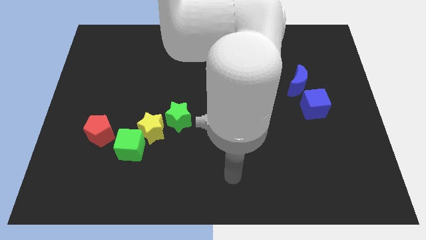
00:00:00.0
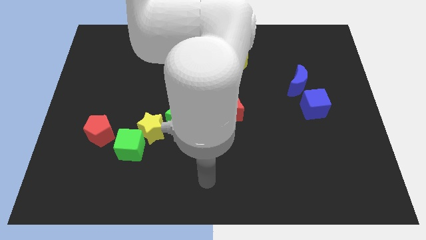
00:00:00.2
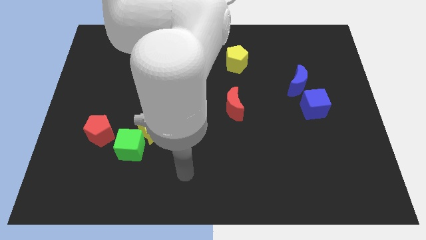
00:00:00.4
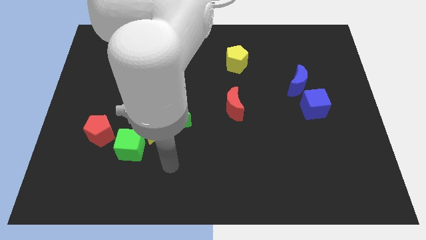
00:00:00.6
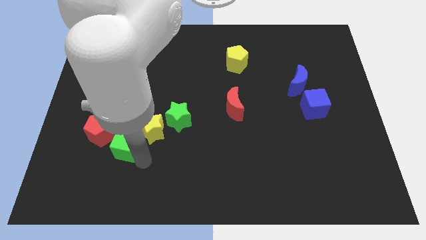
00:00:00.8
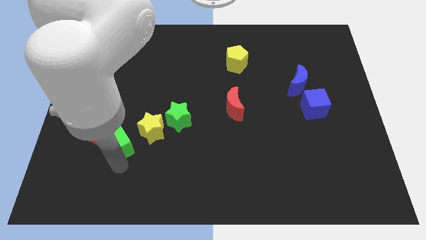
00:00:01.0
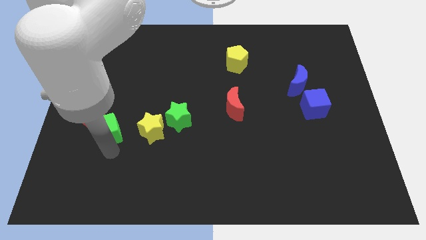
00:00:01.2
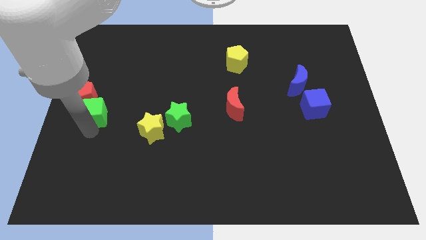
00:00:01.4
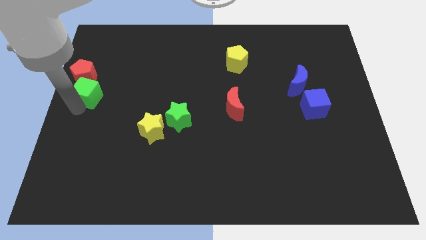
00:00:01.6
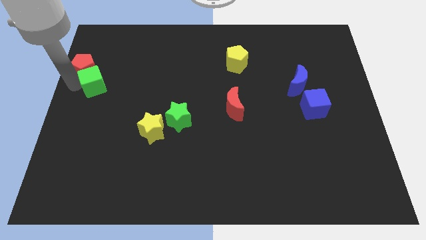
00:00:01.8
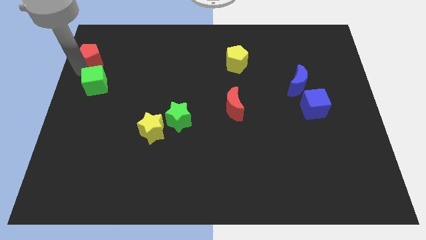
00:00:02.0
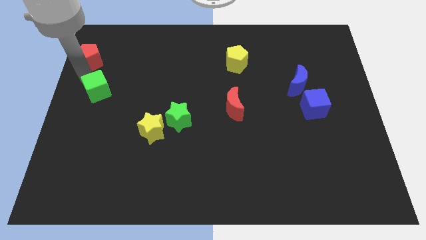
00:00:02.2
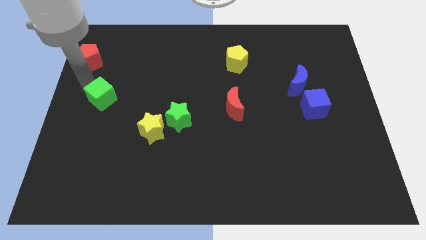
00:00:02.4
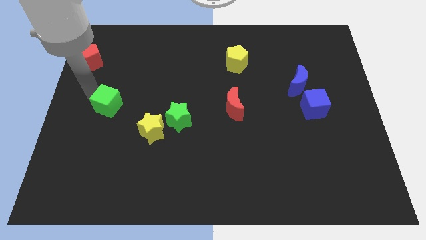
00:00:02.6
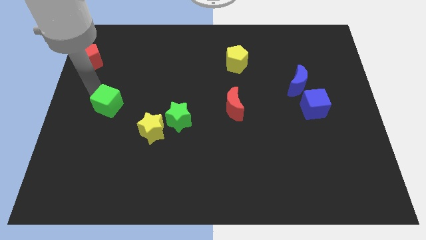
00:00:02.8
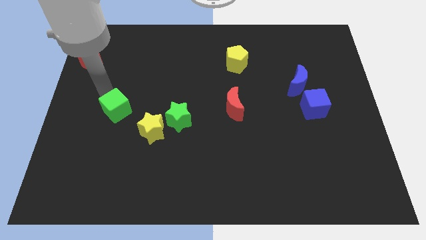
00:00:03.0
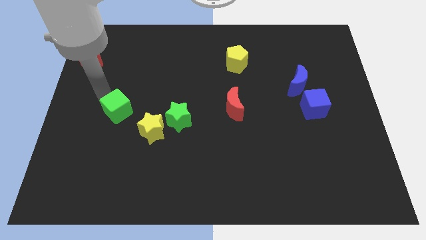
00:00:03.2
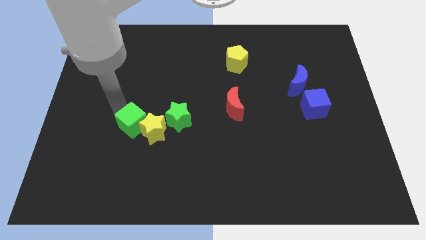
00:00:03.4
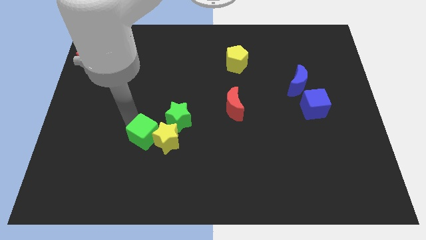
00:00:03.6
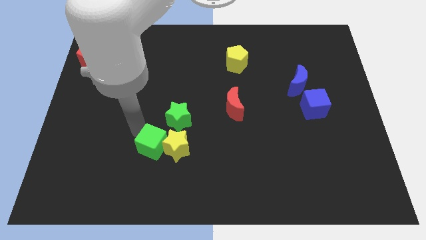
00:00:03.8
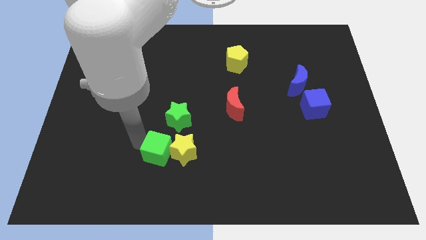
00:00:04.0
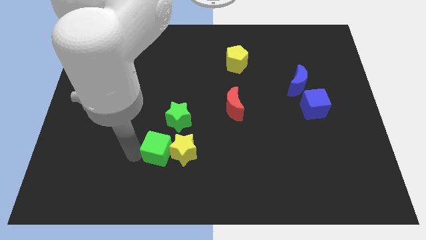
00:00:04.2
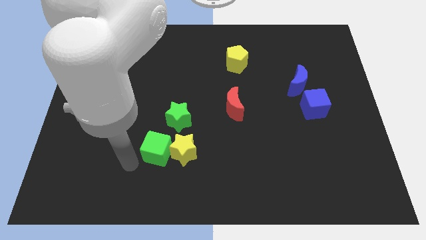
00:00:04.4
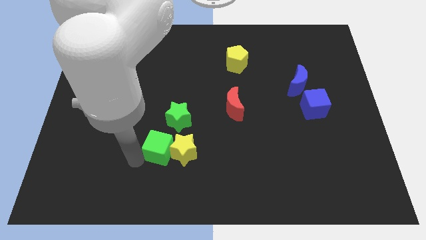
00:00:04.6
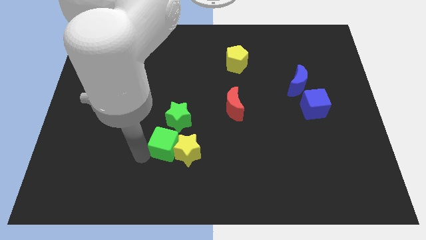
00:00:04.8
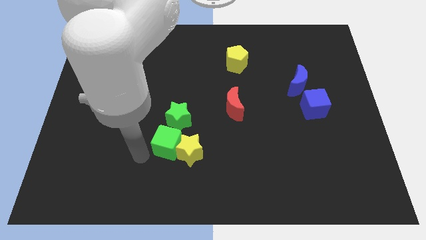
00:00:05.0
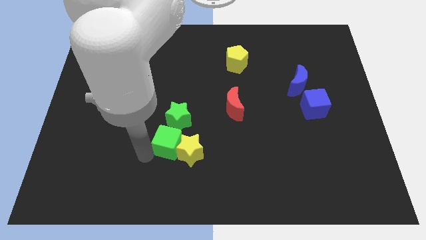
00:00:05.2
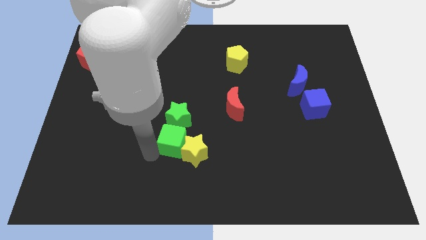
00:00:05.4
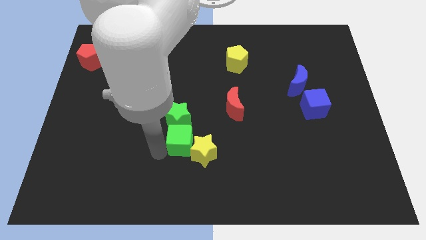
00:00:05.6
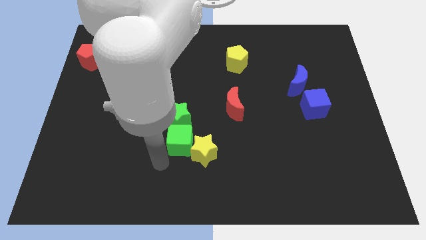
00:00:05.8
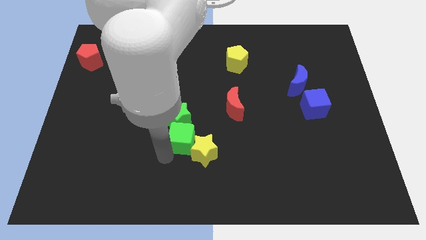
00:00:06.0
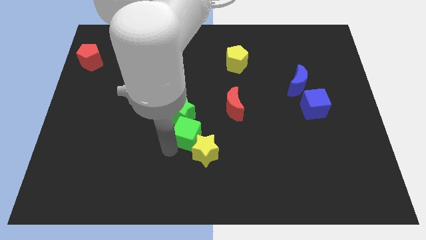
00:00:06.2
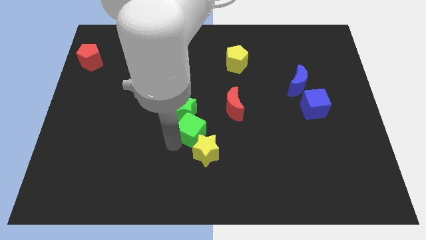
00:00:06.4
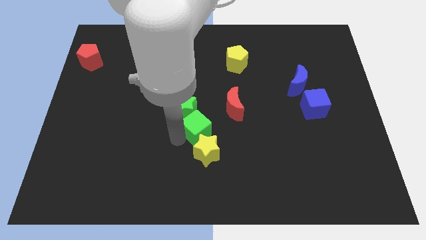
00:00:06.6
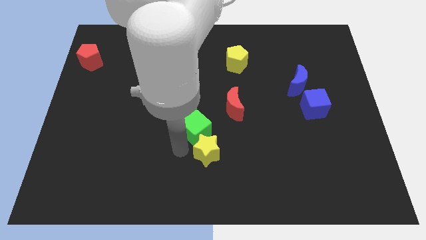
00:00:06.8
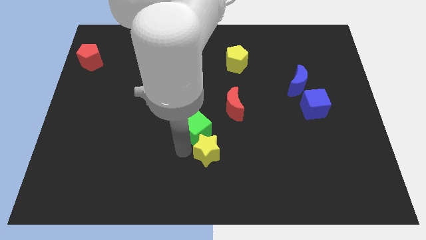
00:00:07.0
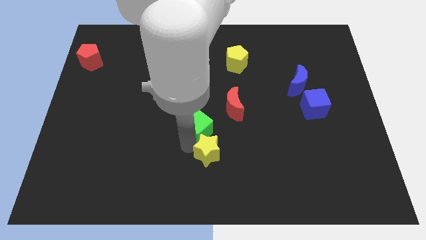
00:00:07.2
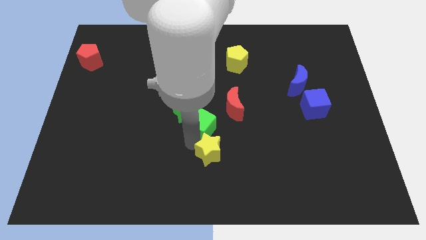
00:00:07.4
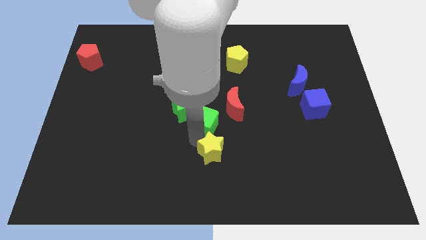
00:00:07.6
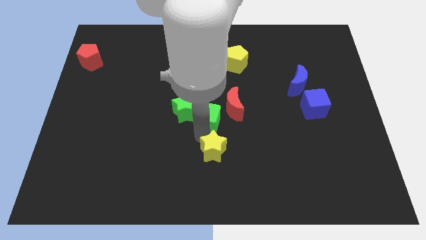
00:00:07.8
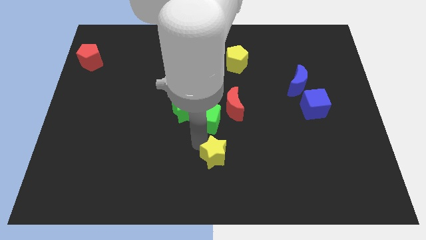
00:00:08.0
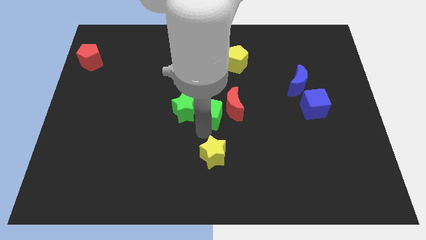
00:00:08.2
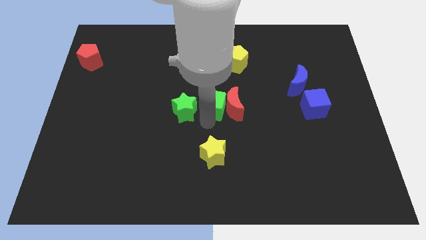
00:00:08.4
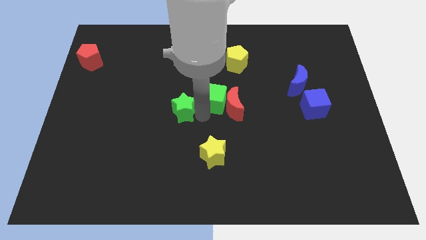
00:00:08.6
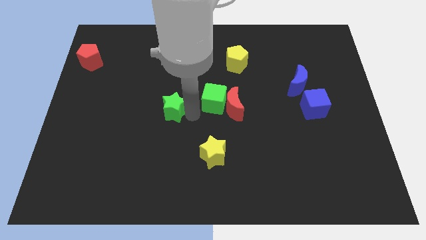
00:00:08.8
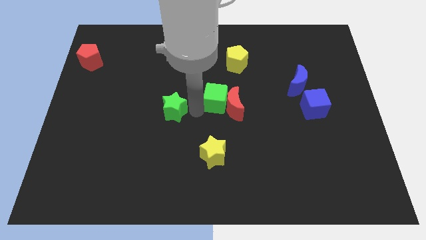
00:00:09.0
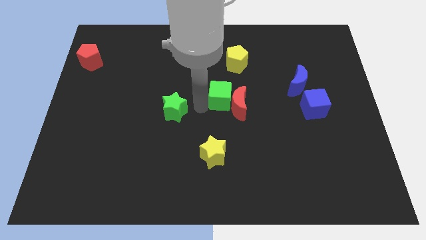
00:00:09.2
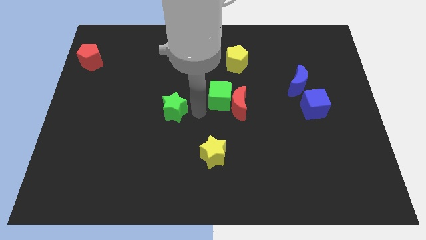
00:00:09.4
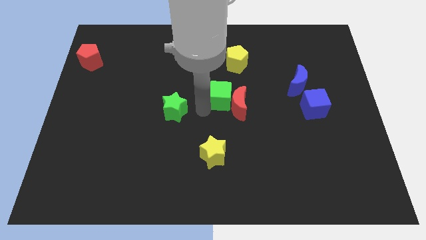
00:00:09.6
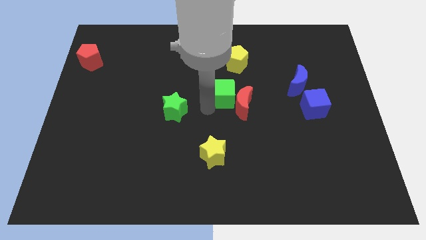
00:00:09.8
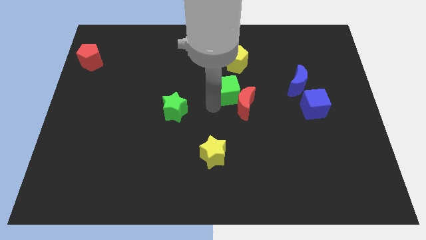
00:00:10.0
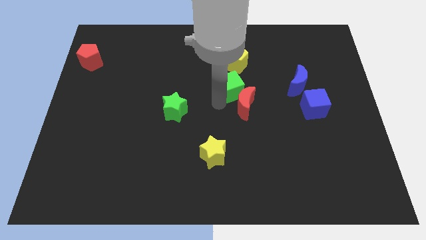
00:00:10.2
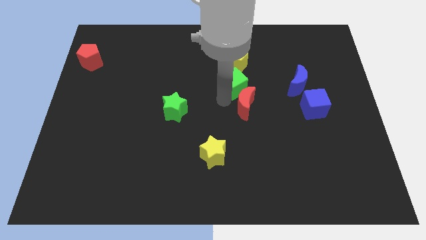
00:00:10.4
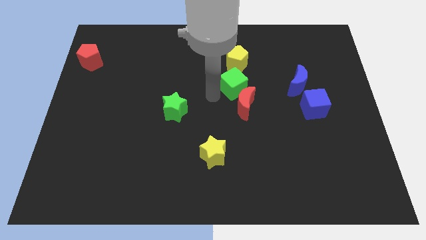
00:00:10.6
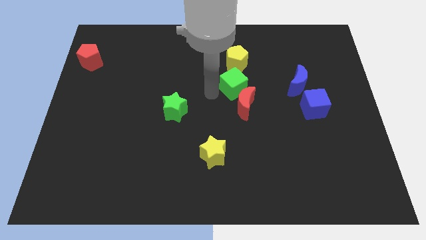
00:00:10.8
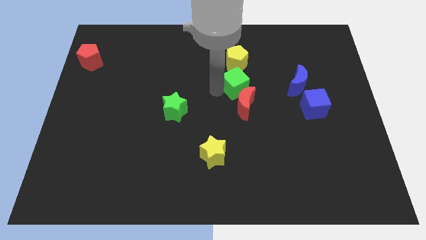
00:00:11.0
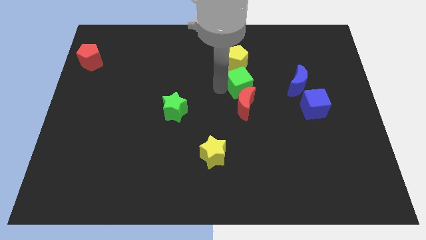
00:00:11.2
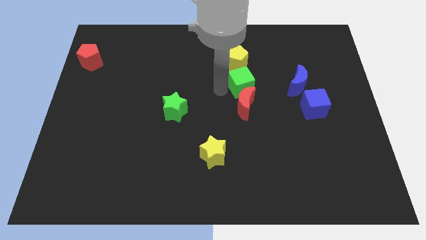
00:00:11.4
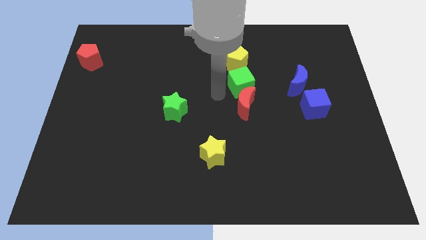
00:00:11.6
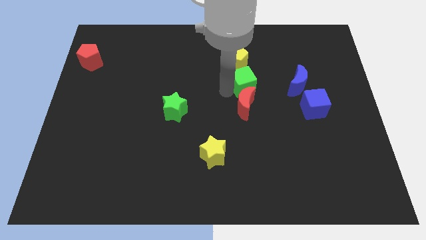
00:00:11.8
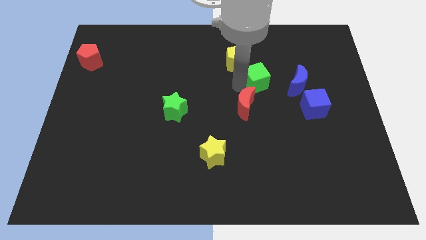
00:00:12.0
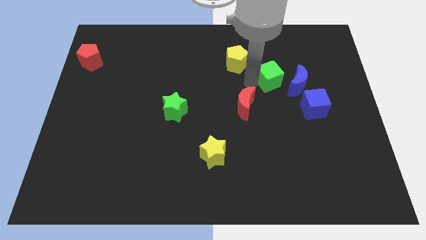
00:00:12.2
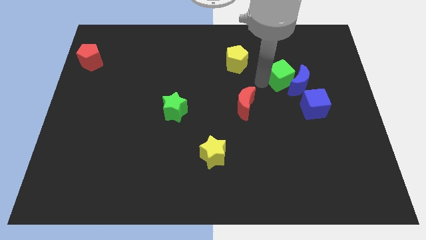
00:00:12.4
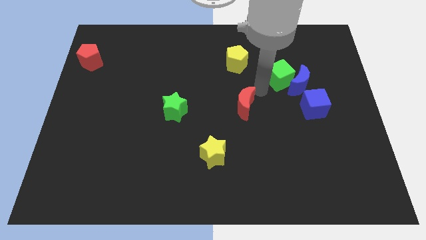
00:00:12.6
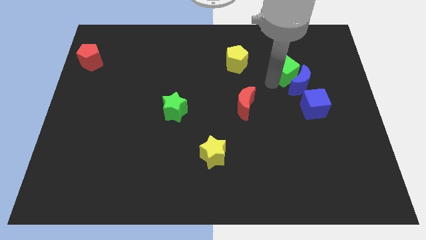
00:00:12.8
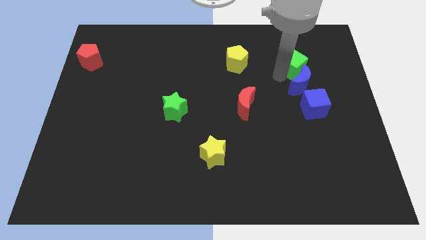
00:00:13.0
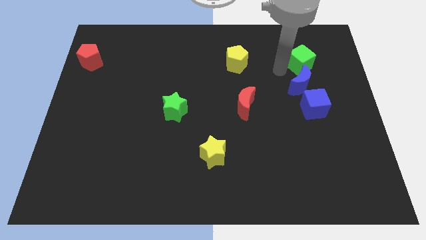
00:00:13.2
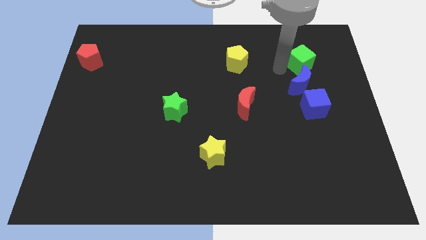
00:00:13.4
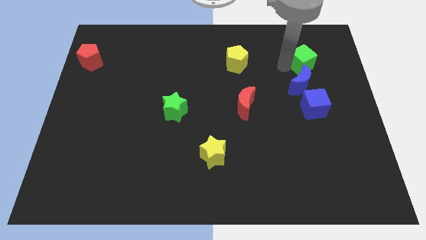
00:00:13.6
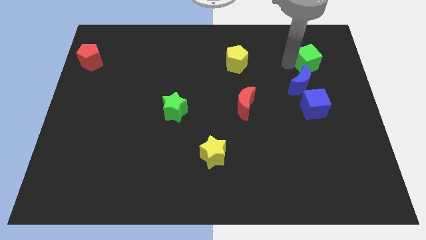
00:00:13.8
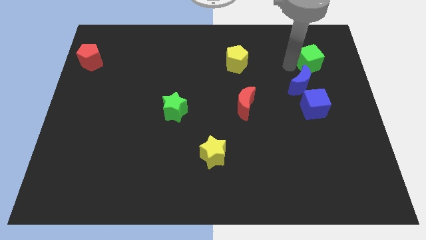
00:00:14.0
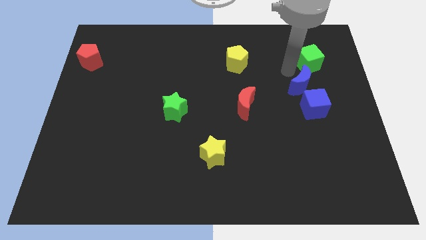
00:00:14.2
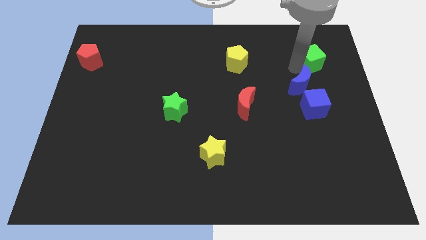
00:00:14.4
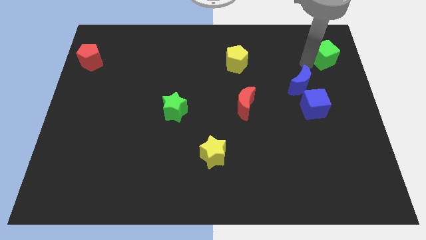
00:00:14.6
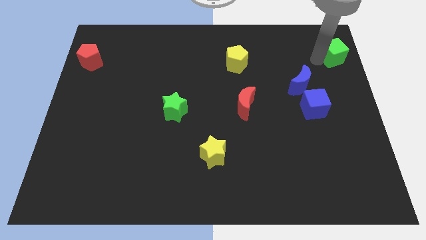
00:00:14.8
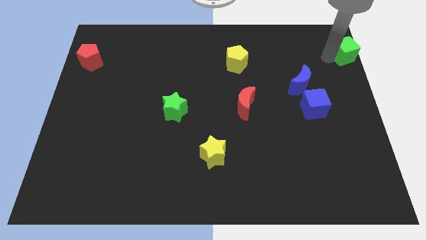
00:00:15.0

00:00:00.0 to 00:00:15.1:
push the green cube to the top right
